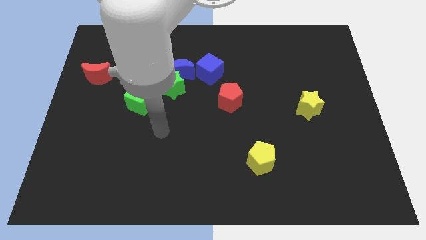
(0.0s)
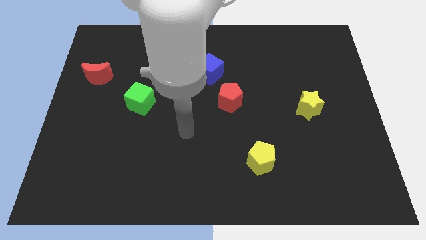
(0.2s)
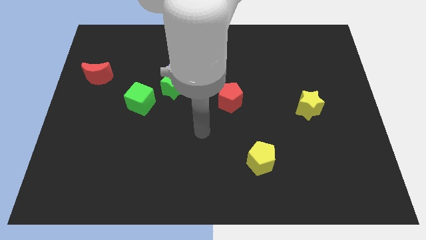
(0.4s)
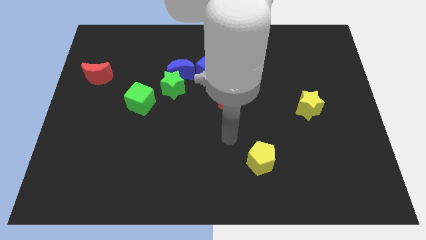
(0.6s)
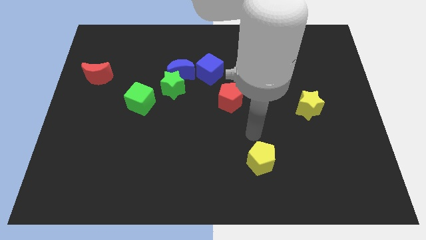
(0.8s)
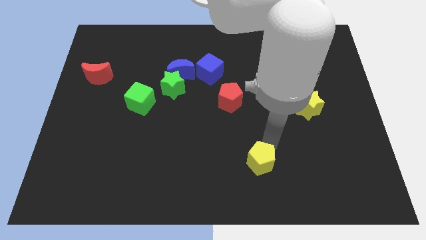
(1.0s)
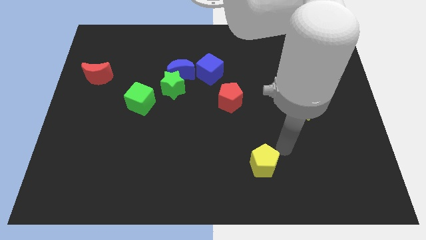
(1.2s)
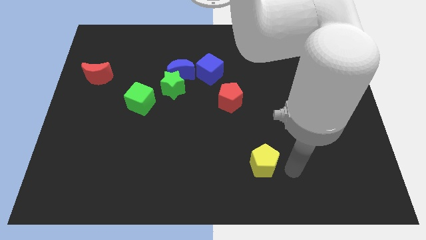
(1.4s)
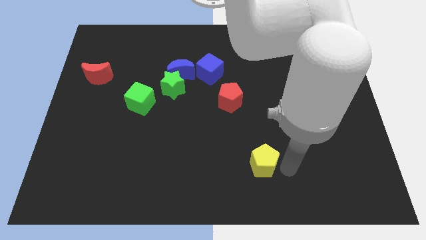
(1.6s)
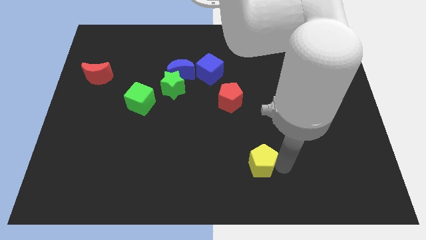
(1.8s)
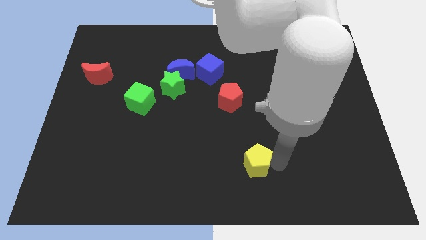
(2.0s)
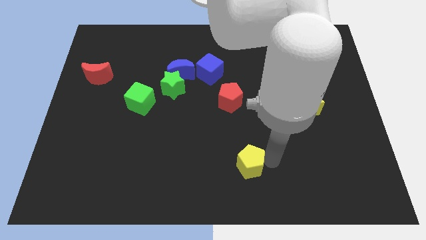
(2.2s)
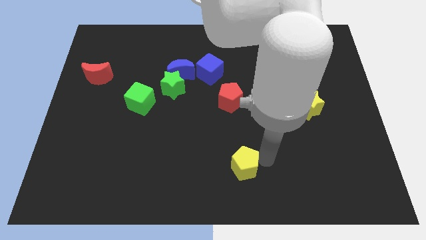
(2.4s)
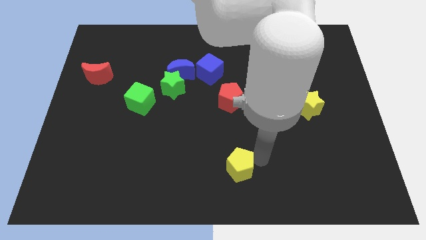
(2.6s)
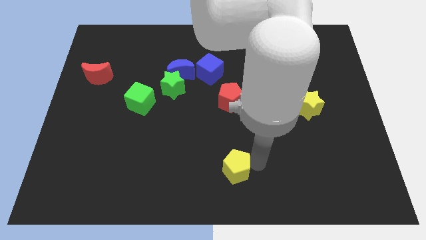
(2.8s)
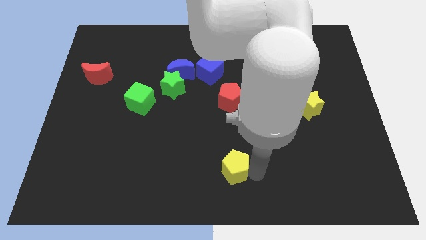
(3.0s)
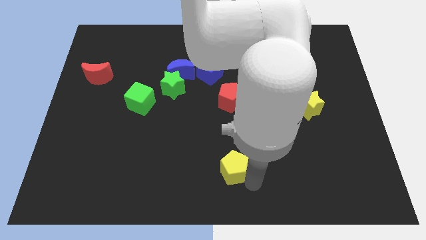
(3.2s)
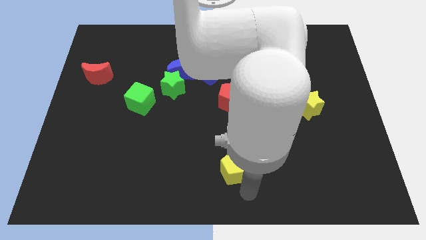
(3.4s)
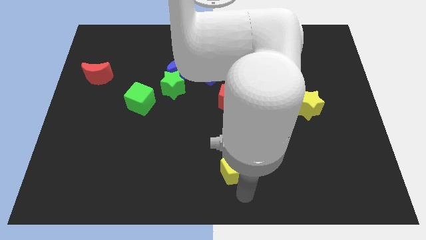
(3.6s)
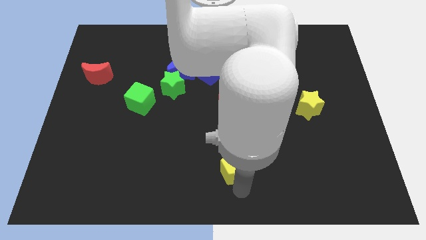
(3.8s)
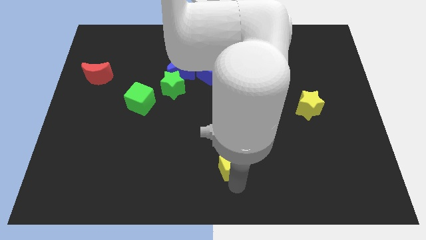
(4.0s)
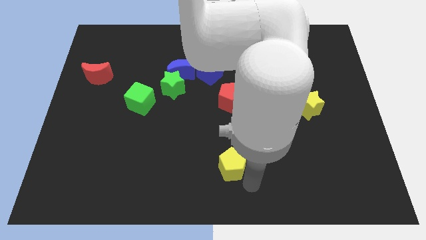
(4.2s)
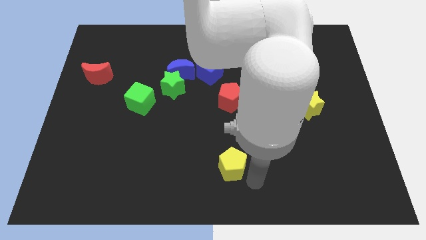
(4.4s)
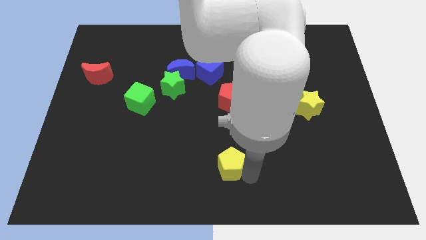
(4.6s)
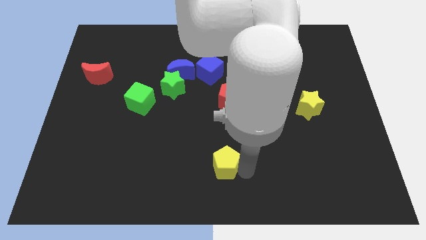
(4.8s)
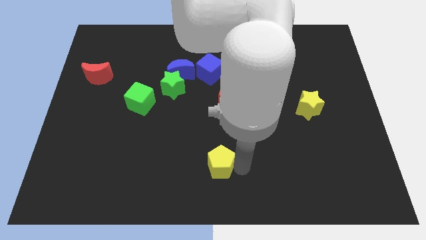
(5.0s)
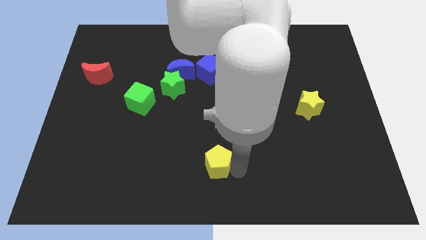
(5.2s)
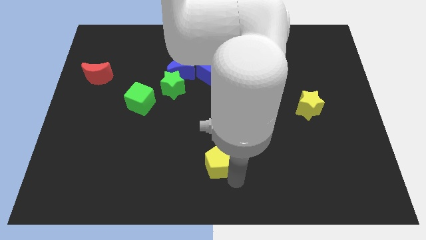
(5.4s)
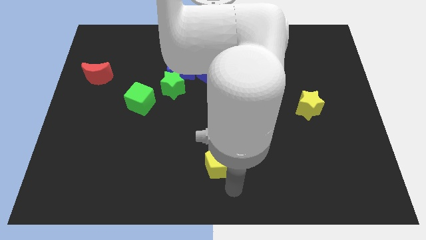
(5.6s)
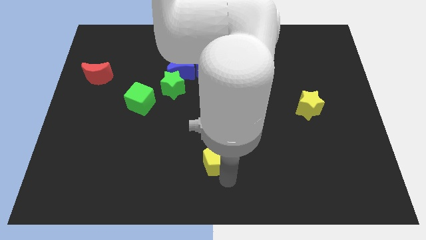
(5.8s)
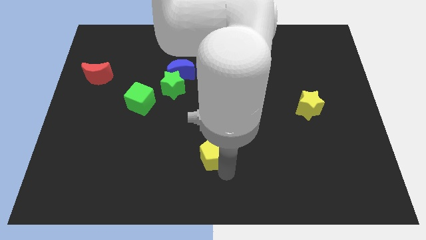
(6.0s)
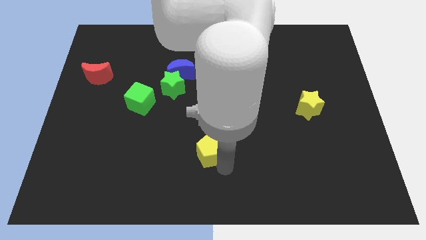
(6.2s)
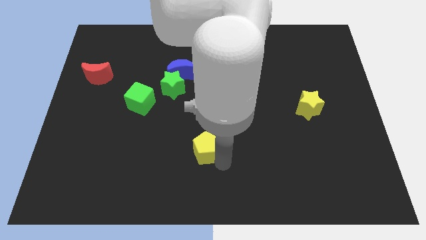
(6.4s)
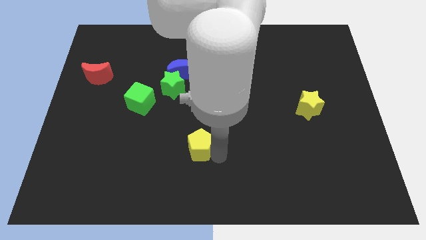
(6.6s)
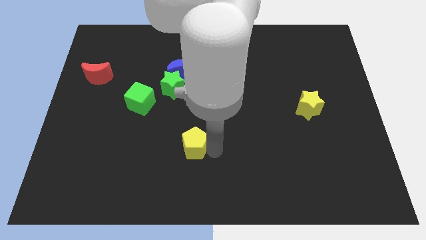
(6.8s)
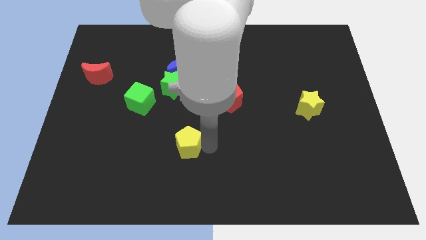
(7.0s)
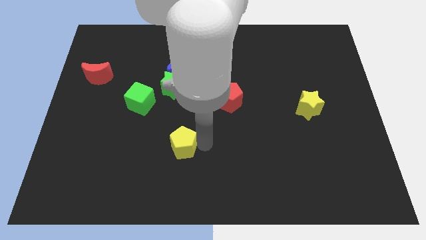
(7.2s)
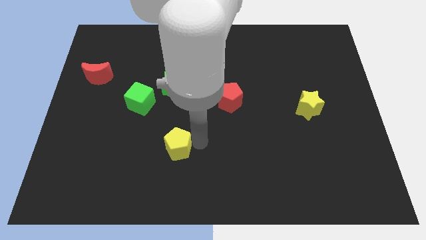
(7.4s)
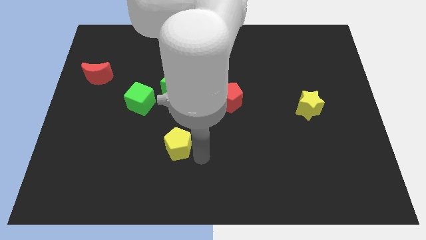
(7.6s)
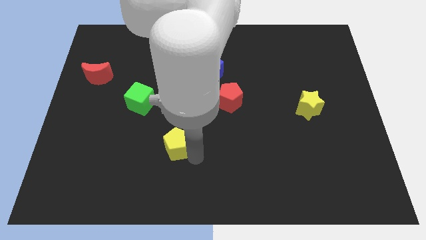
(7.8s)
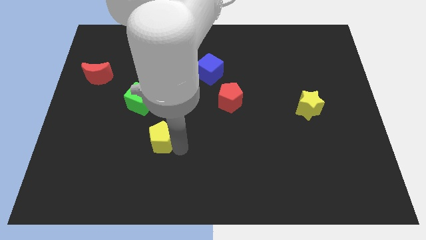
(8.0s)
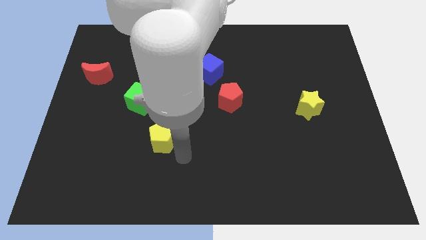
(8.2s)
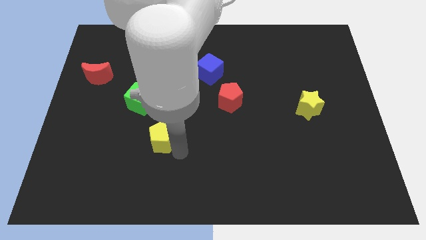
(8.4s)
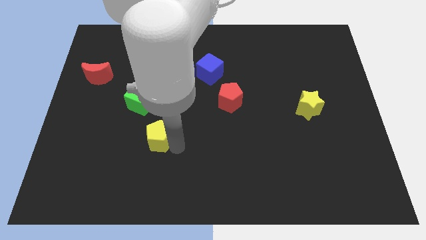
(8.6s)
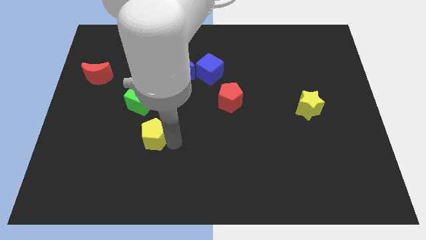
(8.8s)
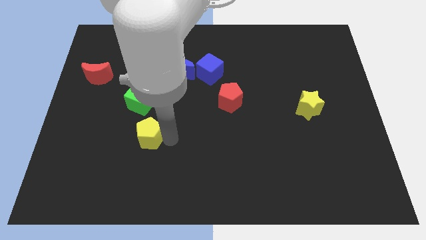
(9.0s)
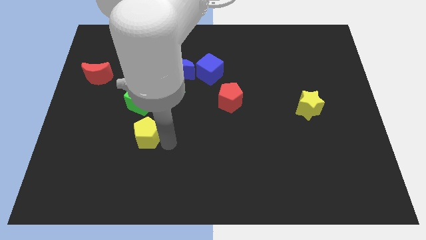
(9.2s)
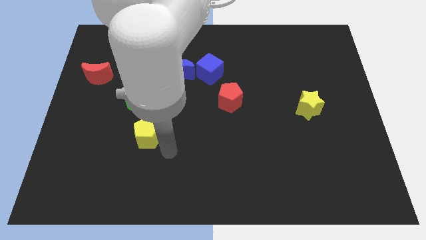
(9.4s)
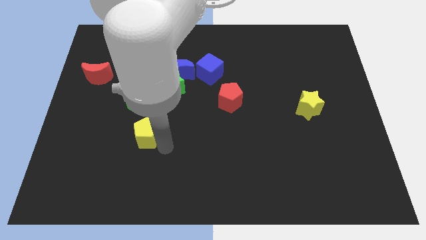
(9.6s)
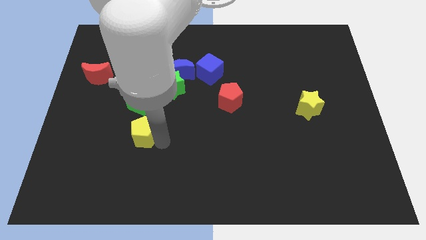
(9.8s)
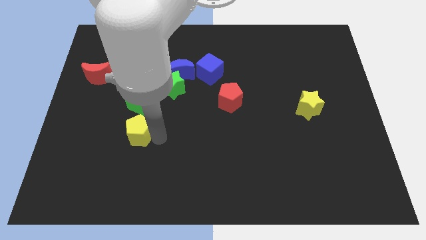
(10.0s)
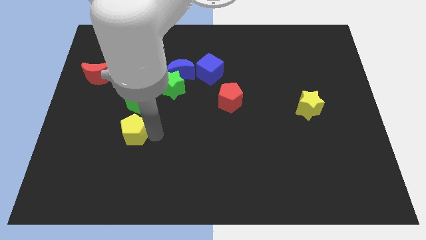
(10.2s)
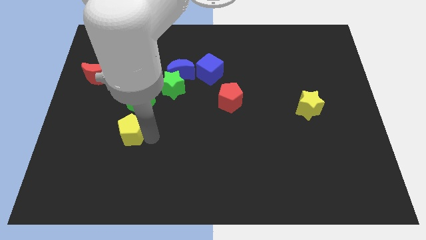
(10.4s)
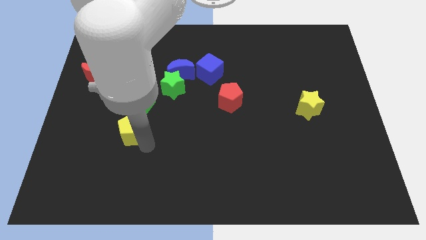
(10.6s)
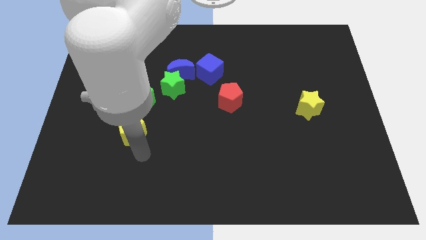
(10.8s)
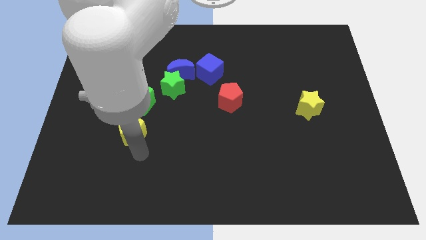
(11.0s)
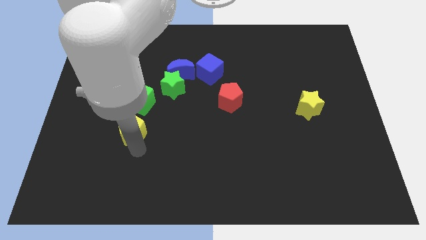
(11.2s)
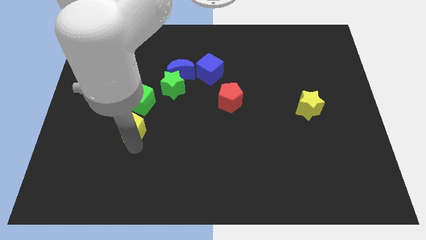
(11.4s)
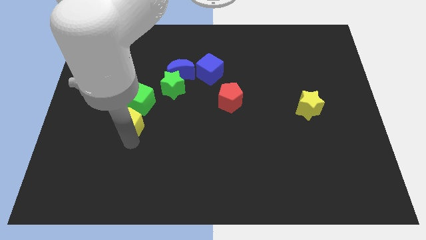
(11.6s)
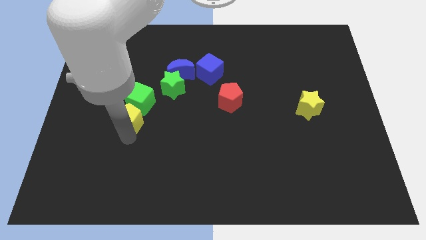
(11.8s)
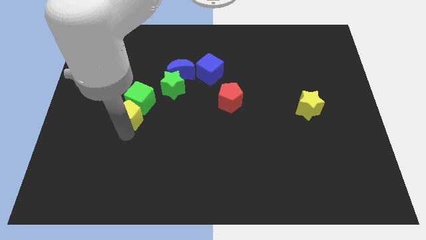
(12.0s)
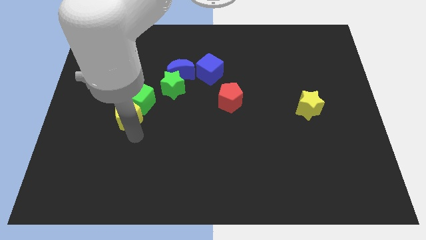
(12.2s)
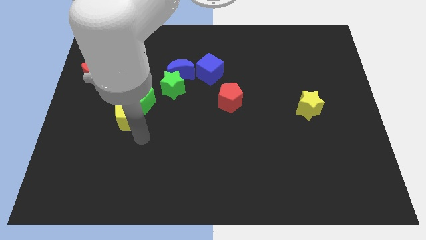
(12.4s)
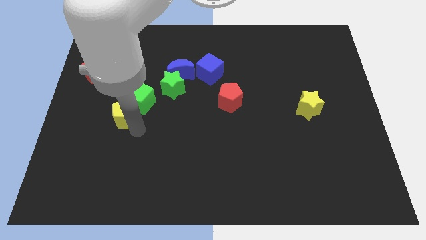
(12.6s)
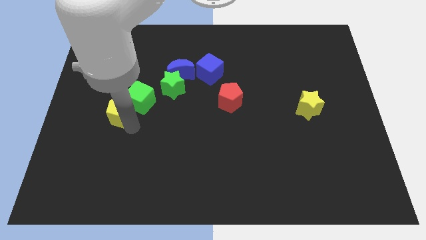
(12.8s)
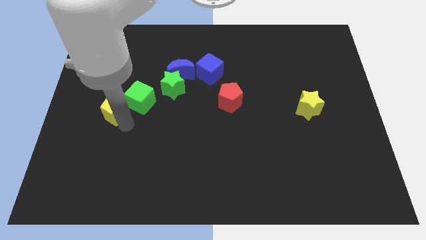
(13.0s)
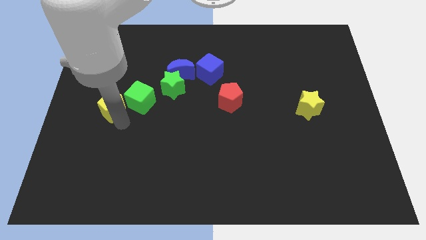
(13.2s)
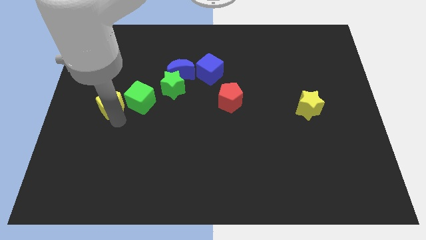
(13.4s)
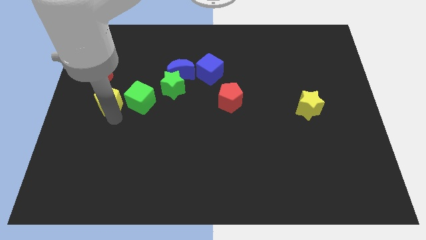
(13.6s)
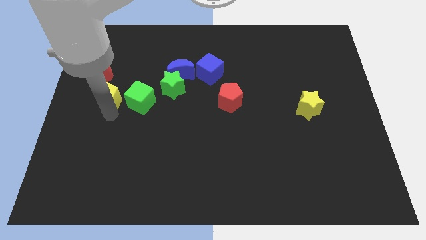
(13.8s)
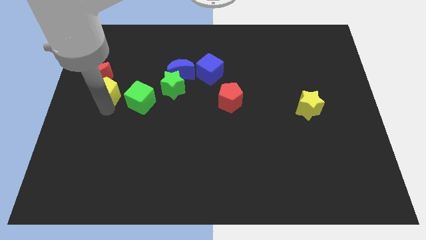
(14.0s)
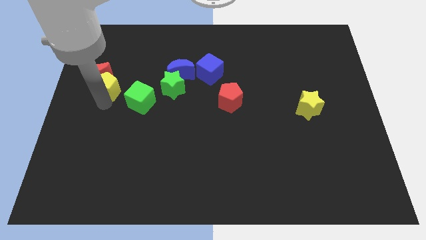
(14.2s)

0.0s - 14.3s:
put the yellow pentagon just right of the red moon
